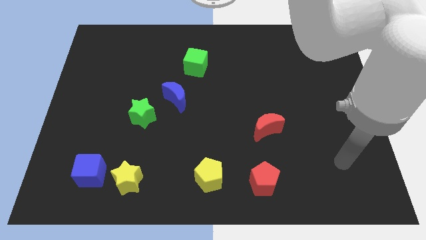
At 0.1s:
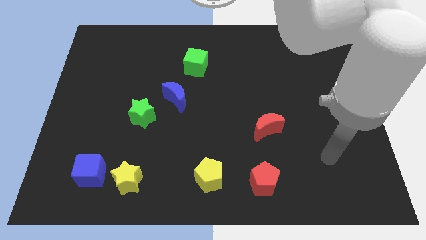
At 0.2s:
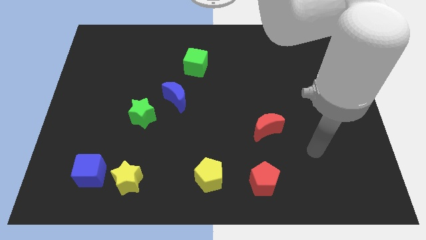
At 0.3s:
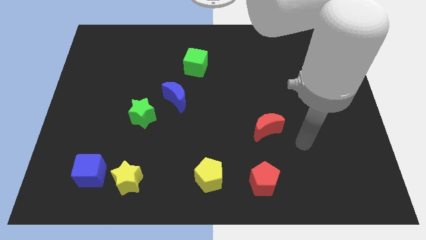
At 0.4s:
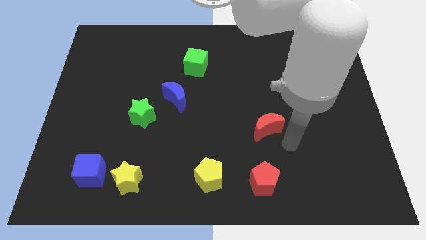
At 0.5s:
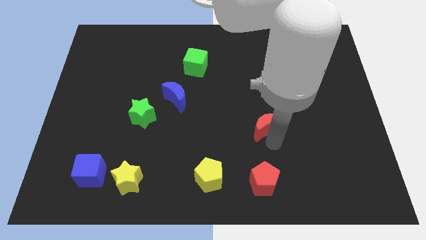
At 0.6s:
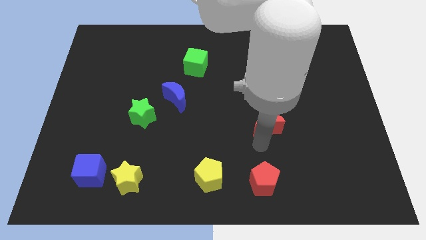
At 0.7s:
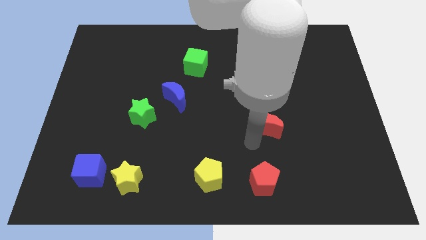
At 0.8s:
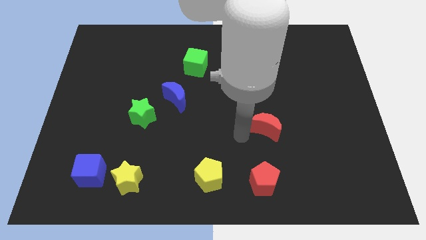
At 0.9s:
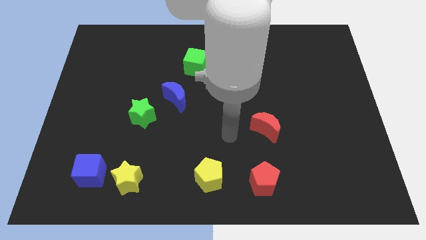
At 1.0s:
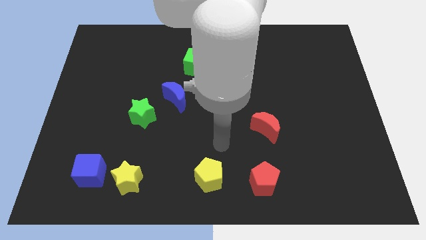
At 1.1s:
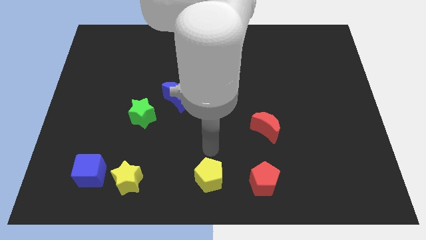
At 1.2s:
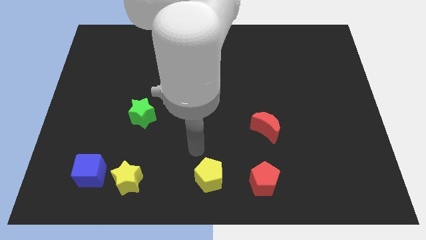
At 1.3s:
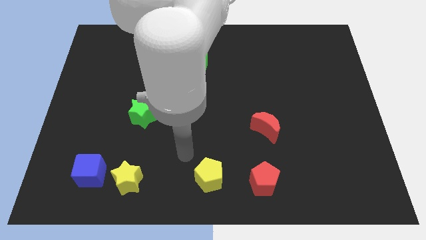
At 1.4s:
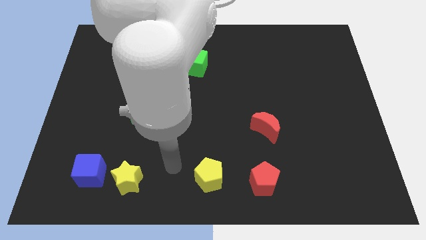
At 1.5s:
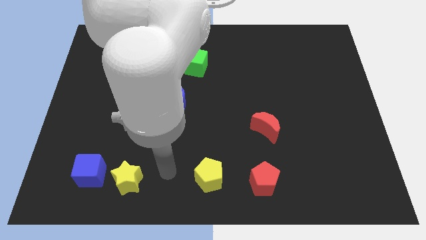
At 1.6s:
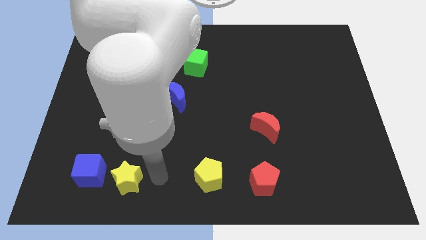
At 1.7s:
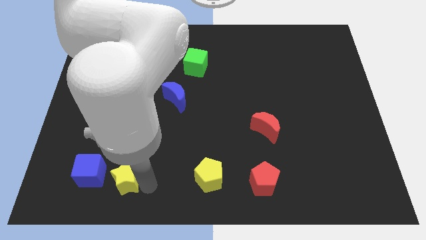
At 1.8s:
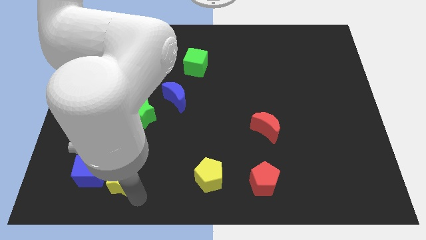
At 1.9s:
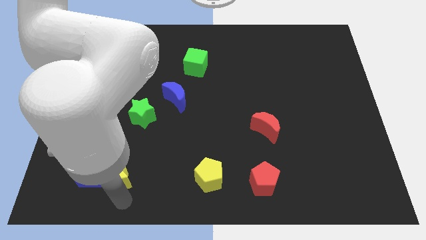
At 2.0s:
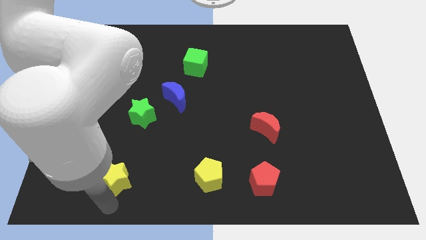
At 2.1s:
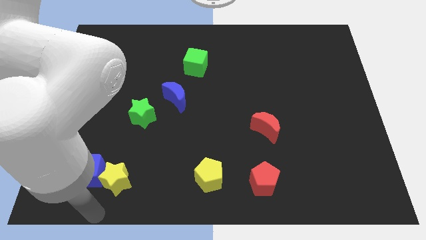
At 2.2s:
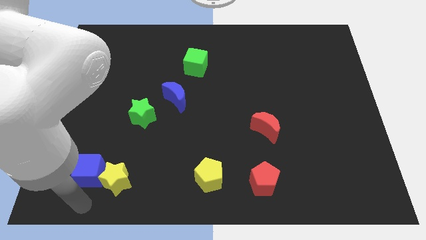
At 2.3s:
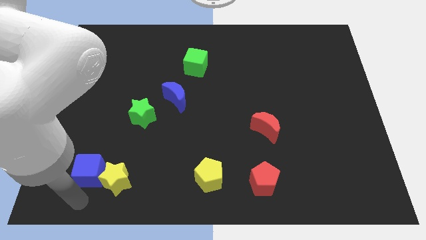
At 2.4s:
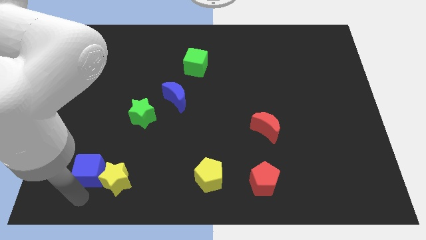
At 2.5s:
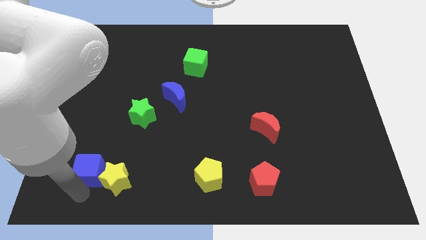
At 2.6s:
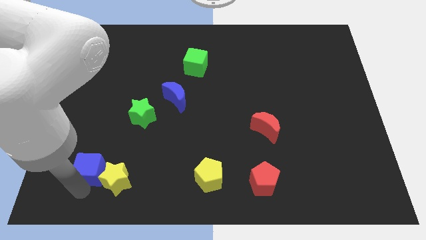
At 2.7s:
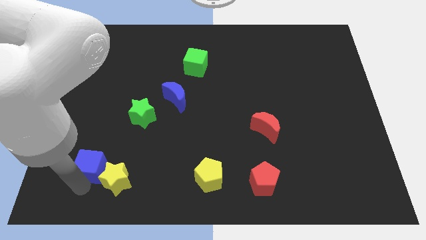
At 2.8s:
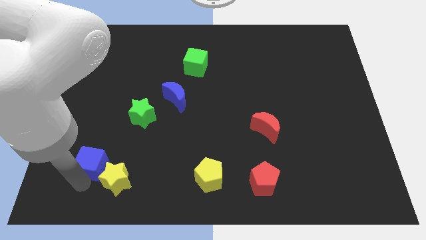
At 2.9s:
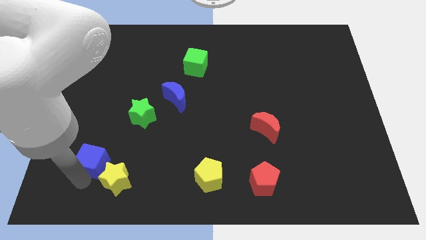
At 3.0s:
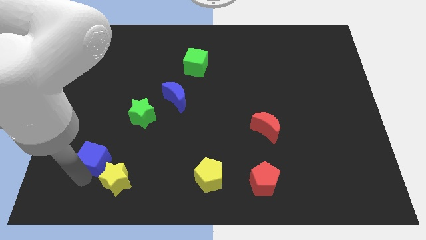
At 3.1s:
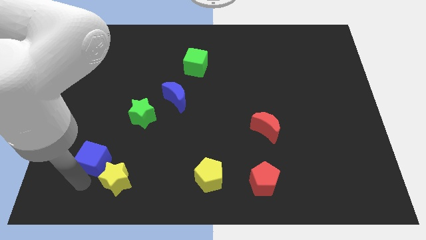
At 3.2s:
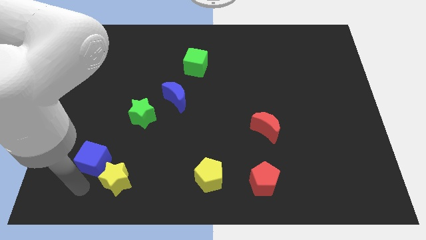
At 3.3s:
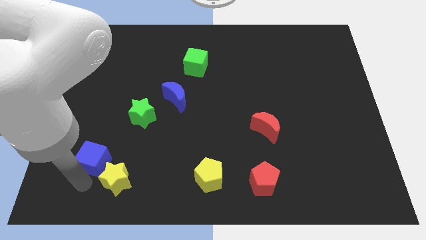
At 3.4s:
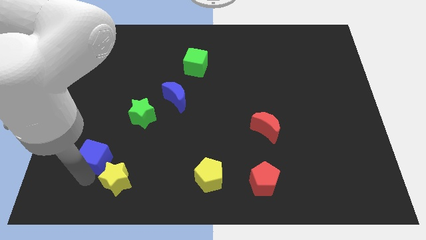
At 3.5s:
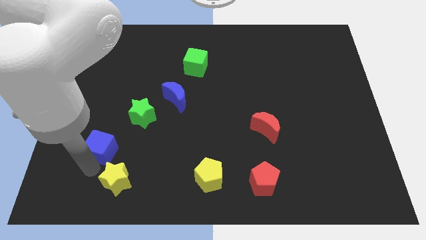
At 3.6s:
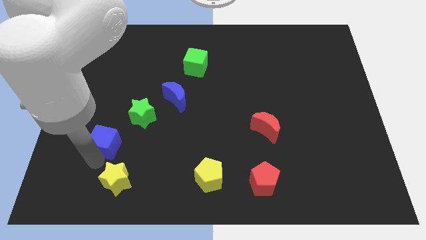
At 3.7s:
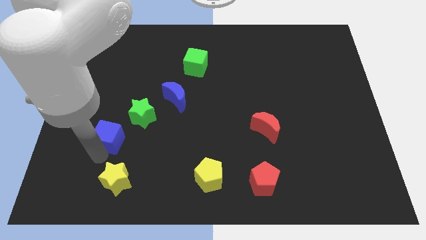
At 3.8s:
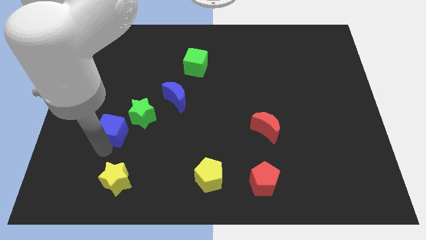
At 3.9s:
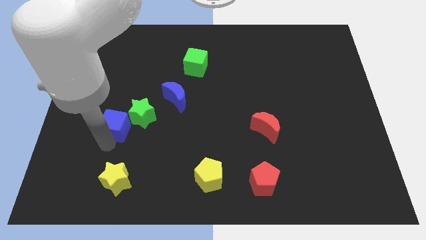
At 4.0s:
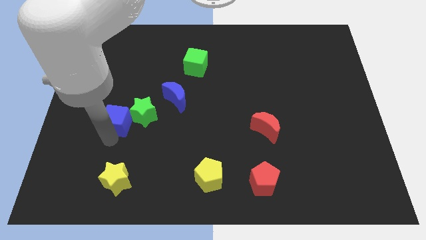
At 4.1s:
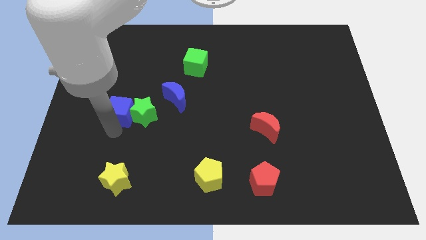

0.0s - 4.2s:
put the blue cube to the left side of the blue moon

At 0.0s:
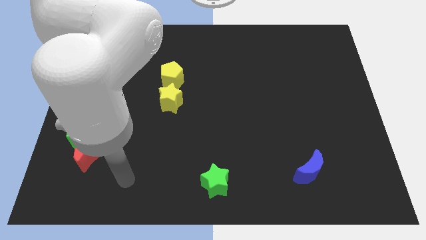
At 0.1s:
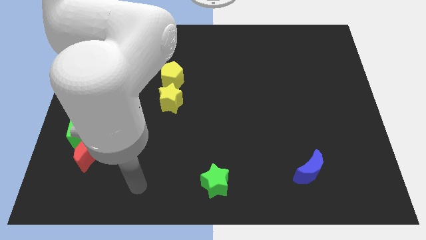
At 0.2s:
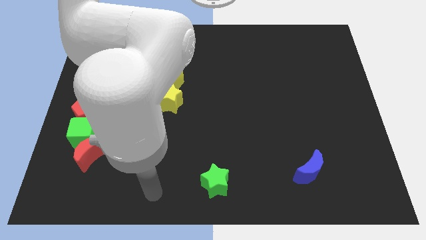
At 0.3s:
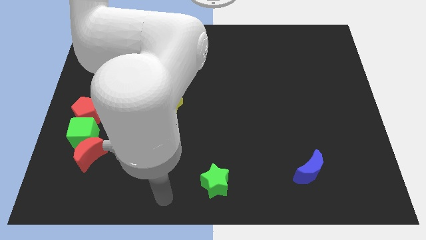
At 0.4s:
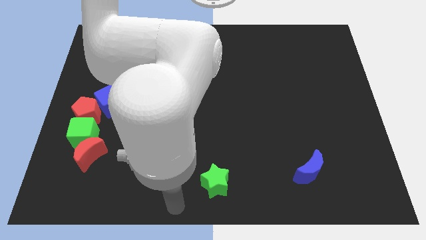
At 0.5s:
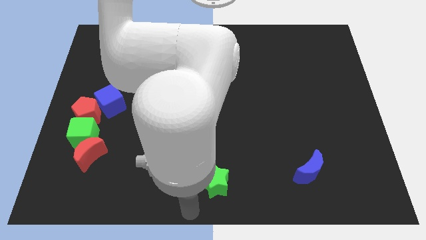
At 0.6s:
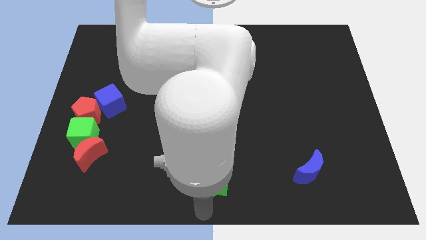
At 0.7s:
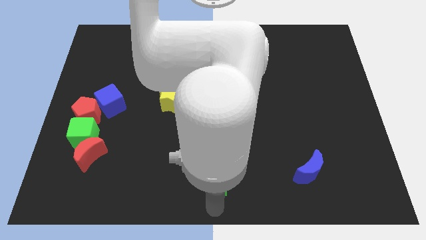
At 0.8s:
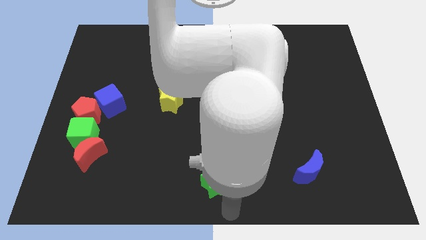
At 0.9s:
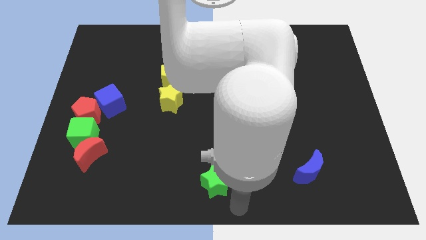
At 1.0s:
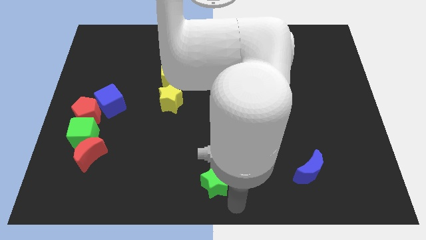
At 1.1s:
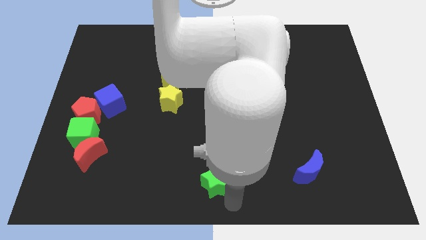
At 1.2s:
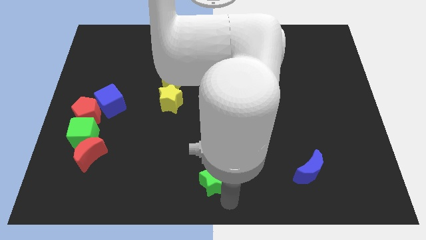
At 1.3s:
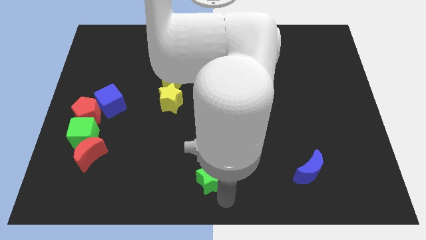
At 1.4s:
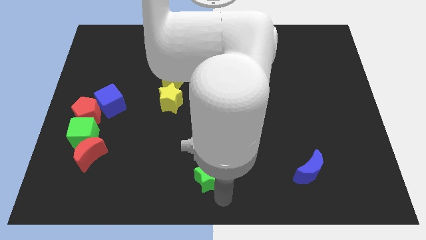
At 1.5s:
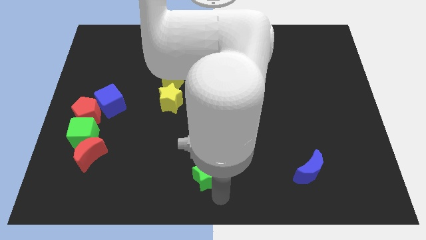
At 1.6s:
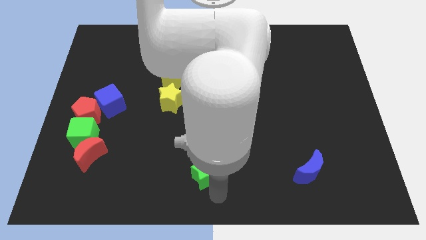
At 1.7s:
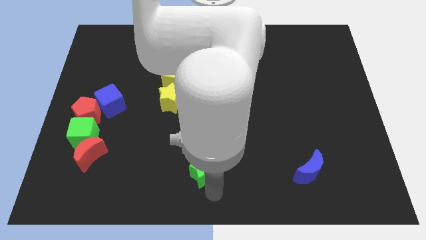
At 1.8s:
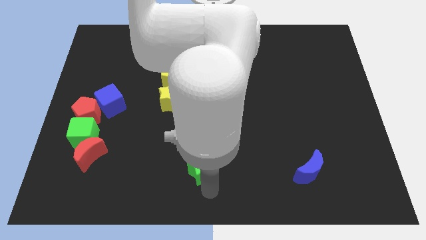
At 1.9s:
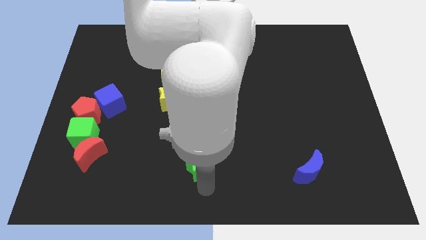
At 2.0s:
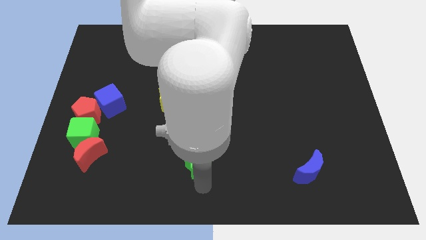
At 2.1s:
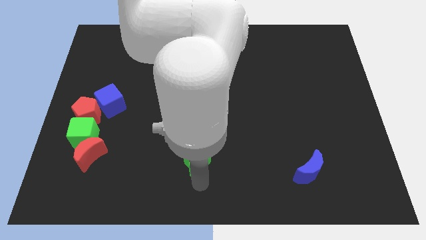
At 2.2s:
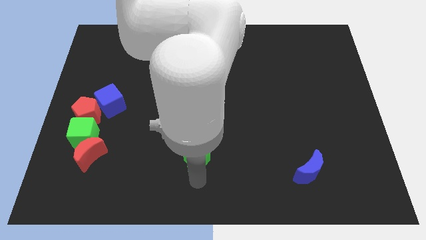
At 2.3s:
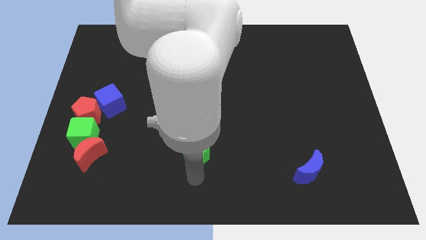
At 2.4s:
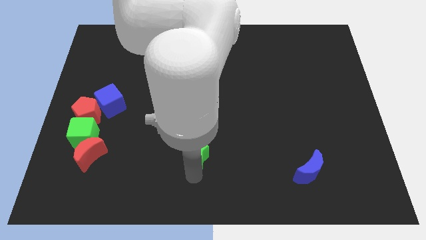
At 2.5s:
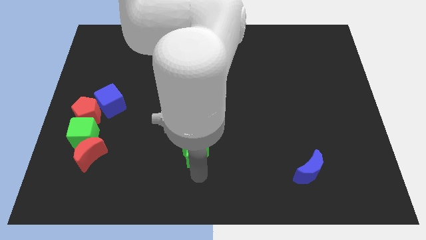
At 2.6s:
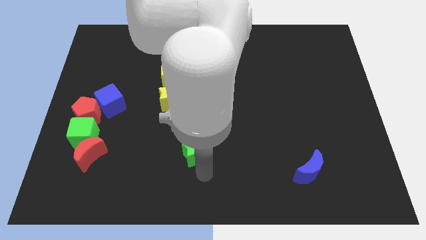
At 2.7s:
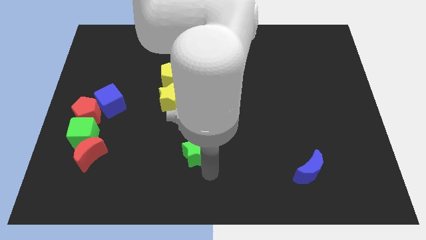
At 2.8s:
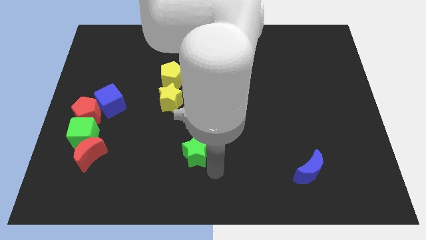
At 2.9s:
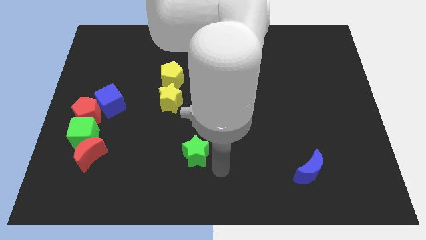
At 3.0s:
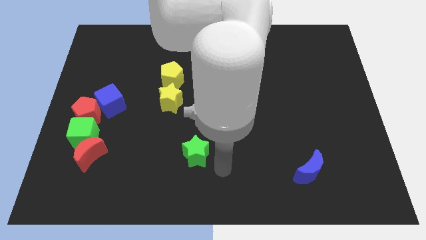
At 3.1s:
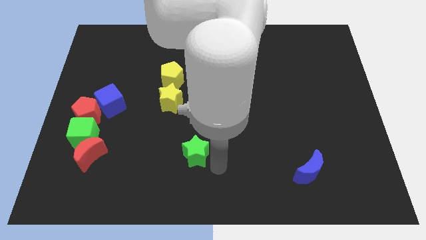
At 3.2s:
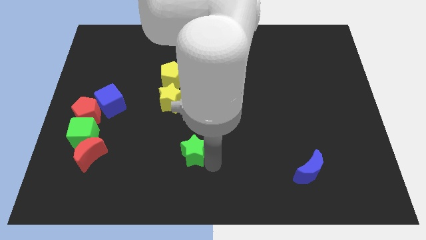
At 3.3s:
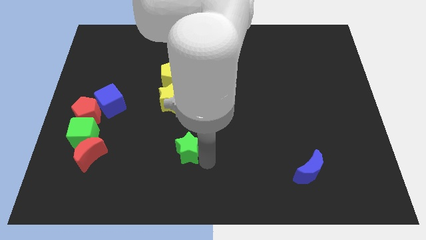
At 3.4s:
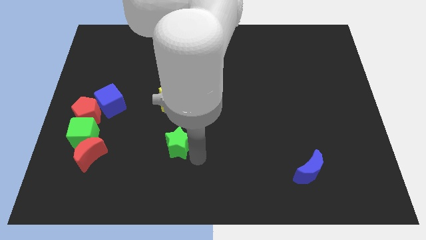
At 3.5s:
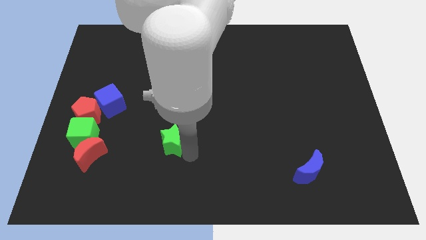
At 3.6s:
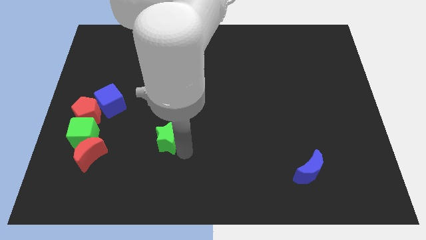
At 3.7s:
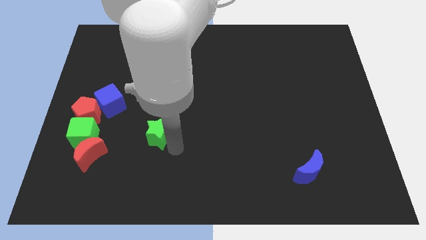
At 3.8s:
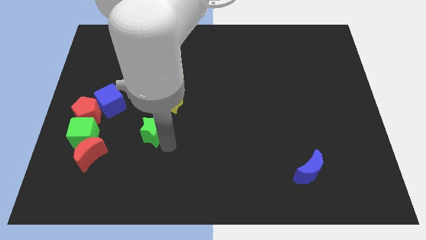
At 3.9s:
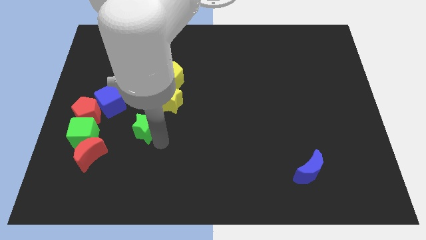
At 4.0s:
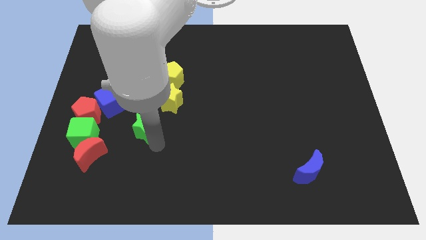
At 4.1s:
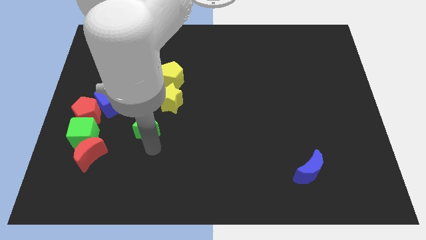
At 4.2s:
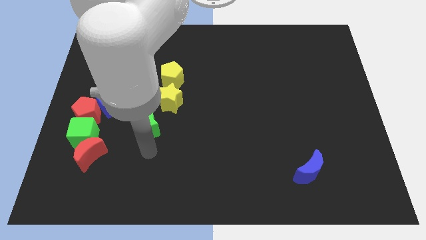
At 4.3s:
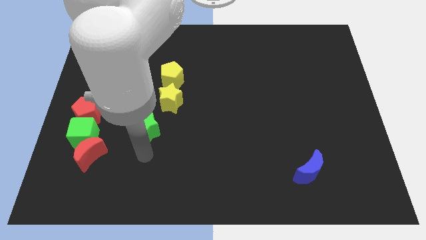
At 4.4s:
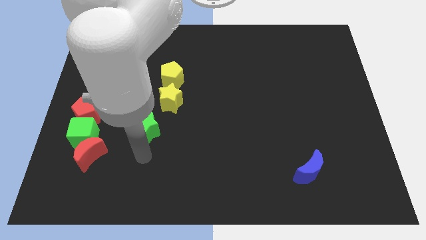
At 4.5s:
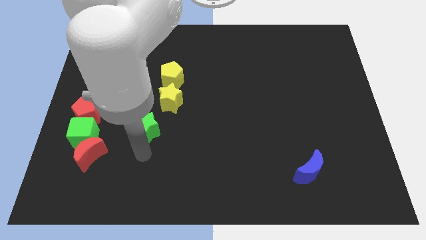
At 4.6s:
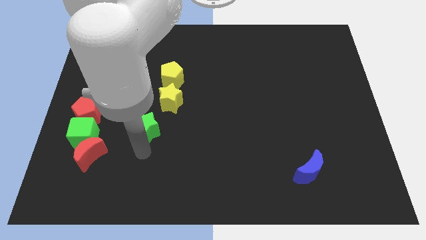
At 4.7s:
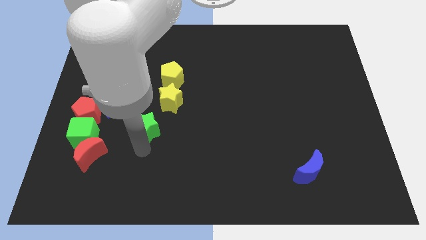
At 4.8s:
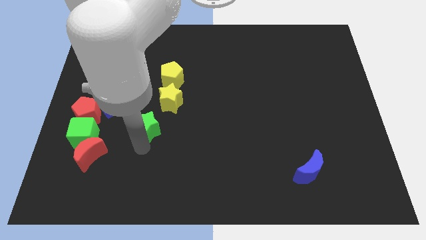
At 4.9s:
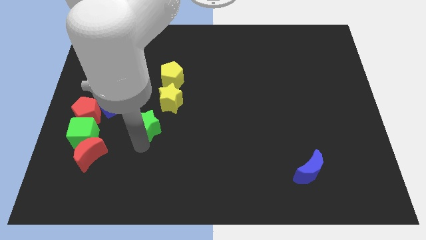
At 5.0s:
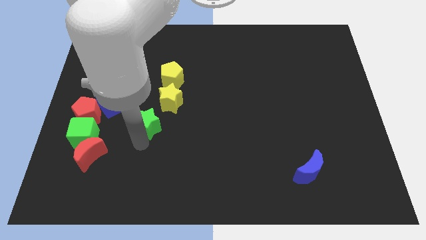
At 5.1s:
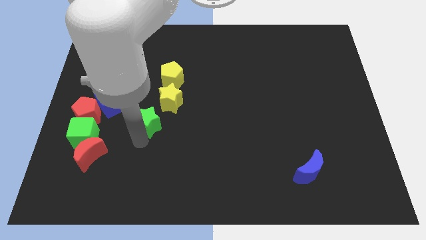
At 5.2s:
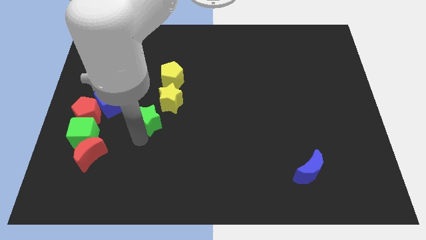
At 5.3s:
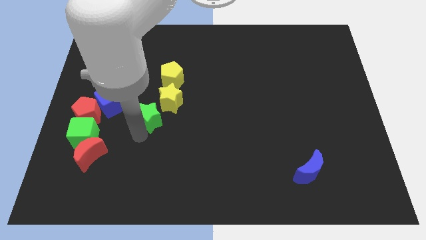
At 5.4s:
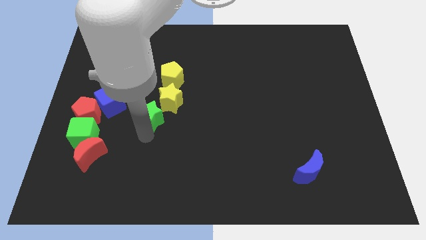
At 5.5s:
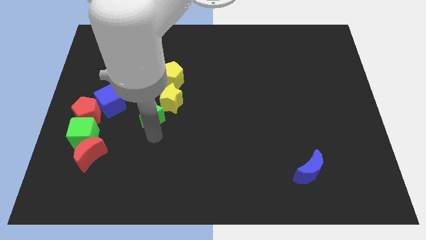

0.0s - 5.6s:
move the green star to the left side of the yellow star
